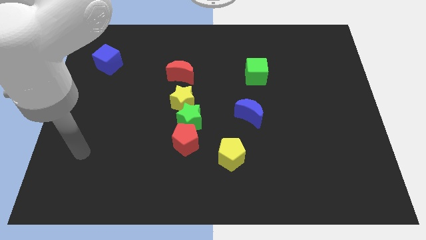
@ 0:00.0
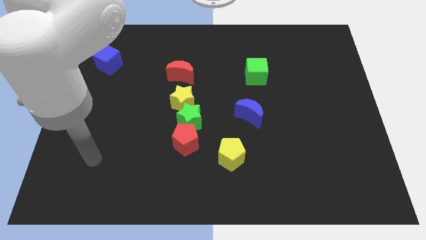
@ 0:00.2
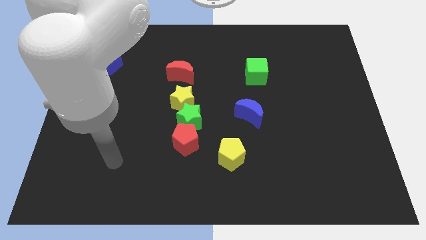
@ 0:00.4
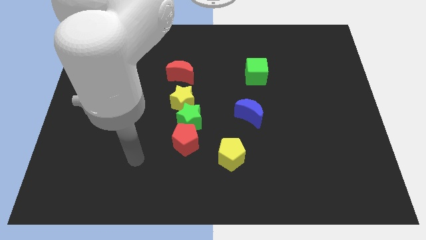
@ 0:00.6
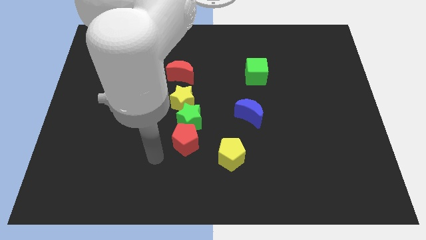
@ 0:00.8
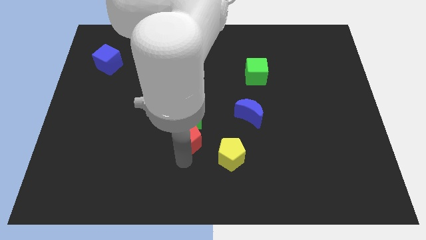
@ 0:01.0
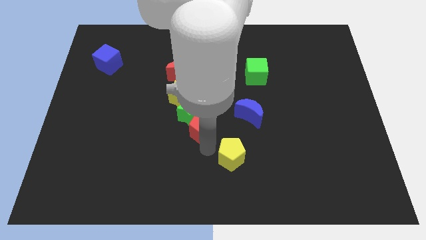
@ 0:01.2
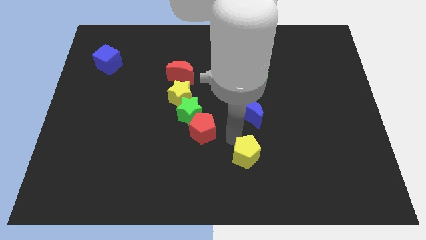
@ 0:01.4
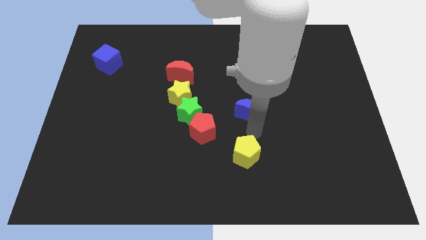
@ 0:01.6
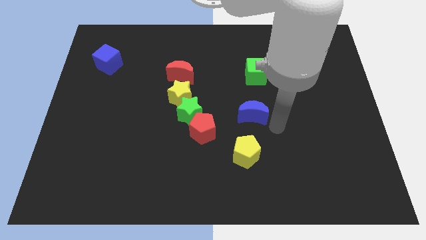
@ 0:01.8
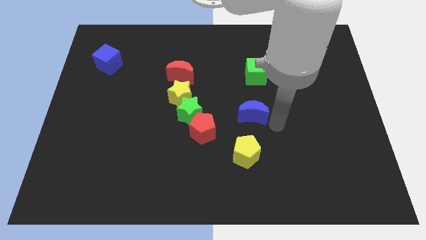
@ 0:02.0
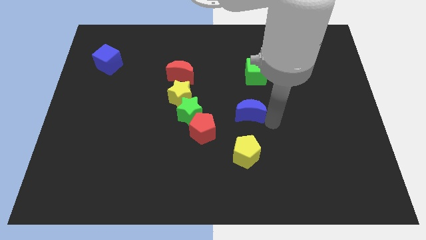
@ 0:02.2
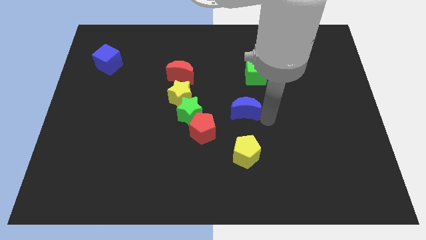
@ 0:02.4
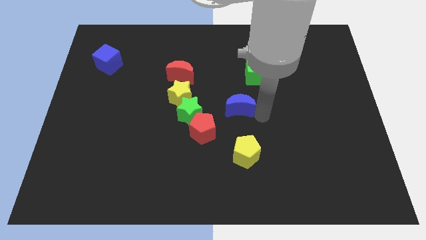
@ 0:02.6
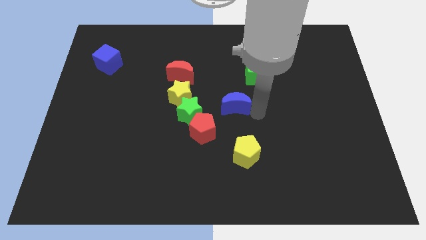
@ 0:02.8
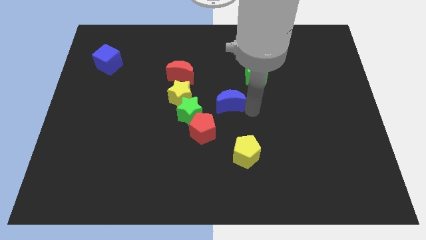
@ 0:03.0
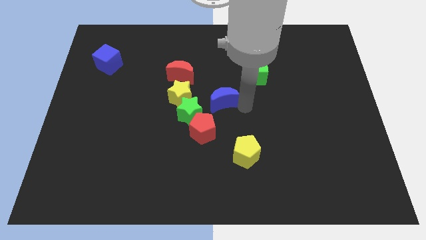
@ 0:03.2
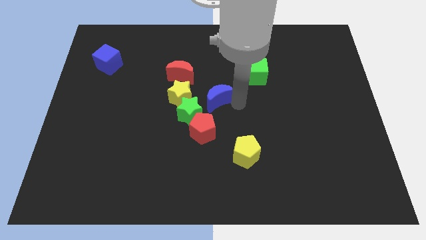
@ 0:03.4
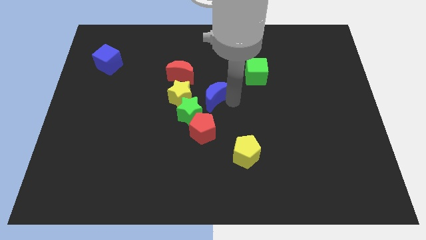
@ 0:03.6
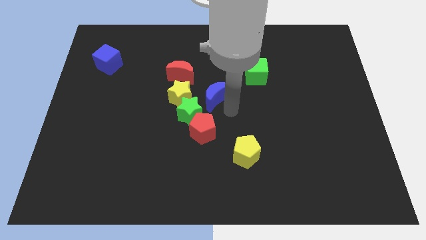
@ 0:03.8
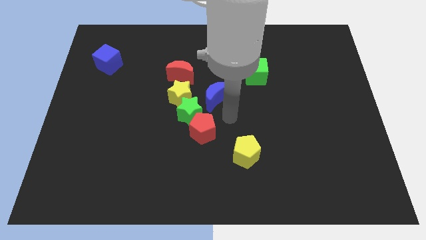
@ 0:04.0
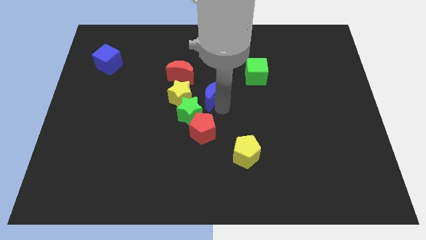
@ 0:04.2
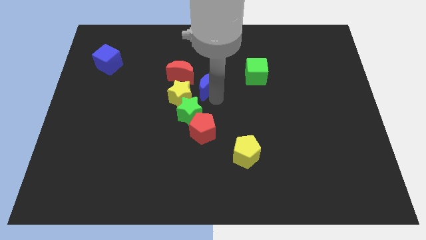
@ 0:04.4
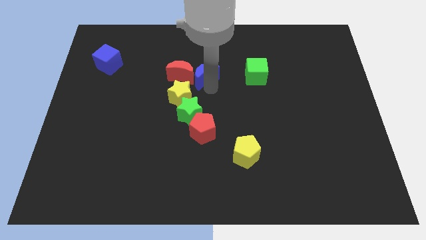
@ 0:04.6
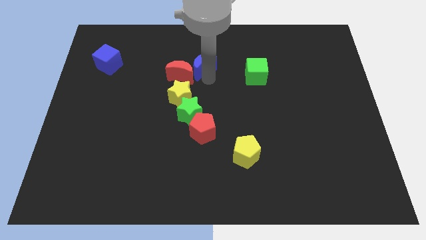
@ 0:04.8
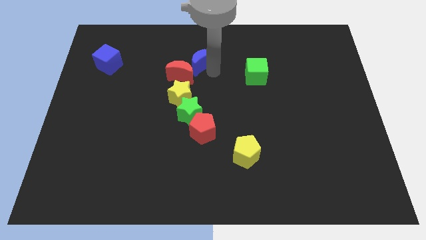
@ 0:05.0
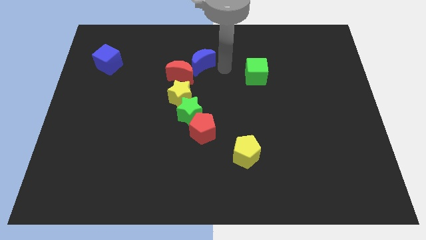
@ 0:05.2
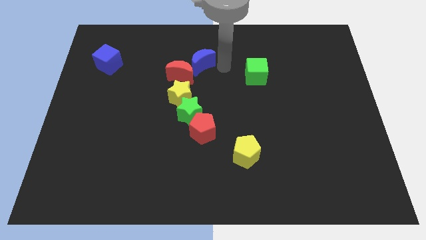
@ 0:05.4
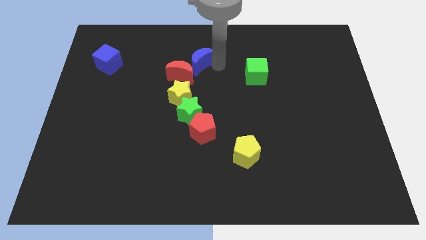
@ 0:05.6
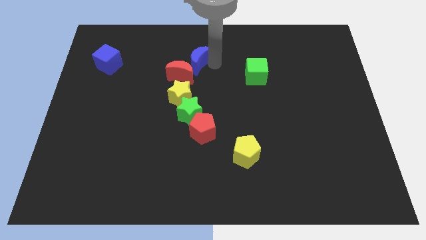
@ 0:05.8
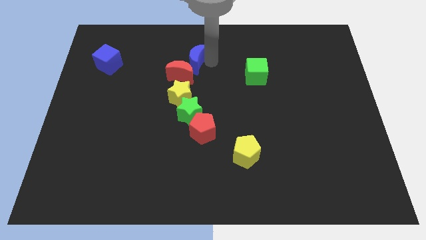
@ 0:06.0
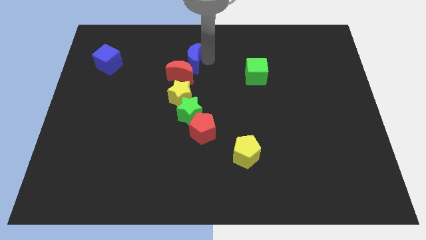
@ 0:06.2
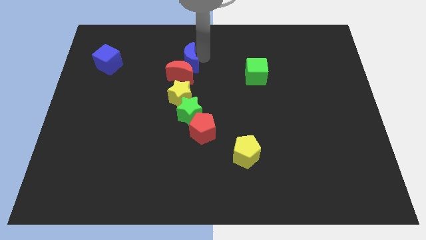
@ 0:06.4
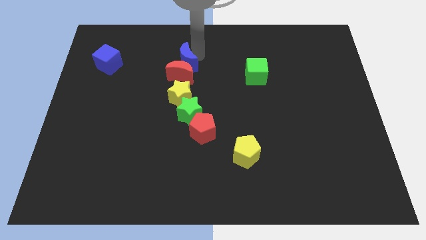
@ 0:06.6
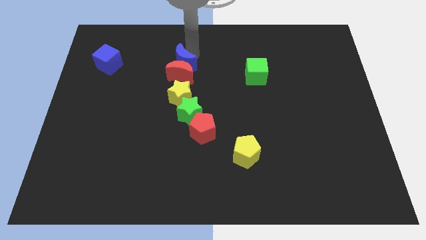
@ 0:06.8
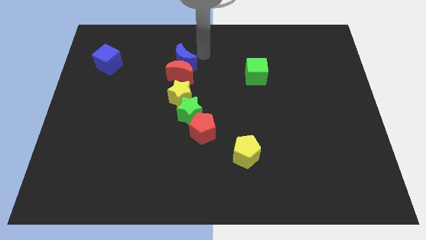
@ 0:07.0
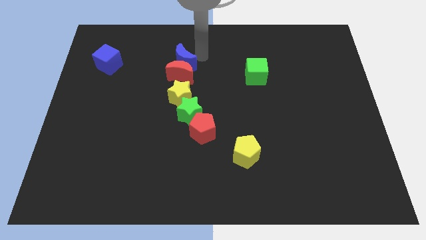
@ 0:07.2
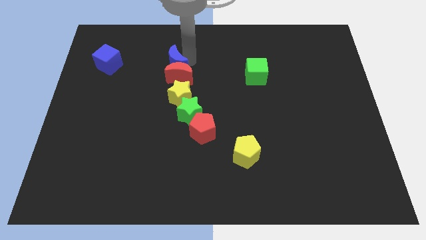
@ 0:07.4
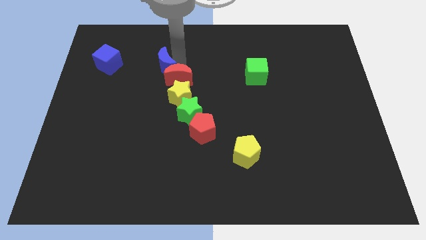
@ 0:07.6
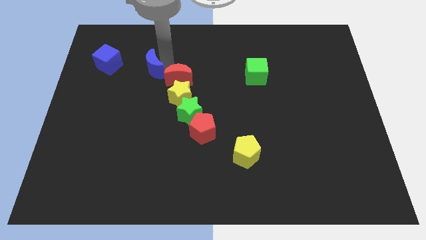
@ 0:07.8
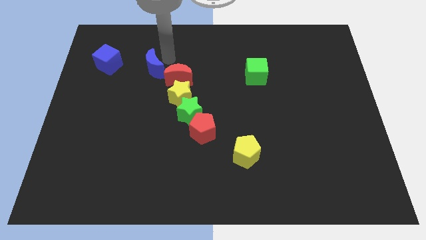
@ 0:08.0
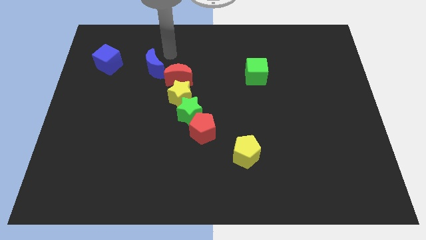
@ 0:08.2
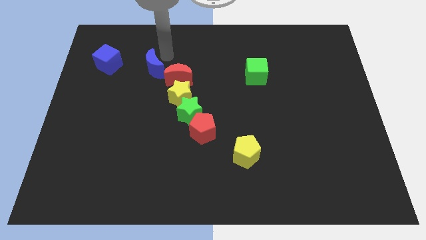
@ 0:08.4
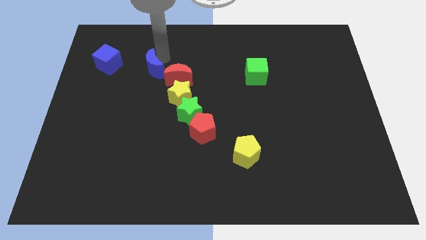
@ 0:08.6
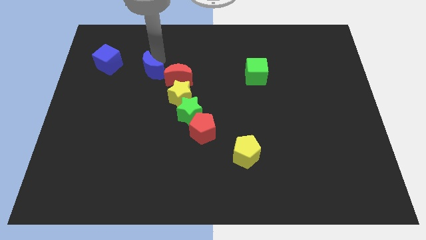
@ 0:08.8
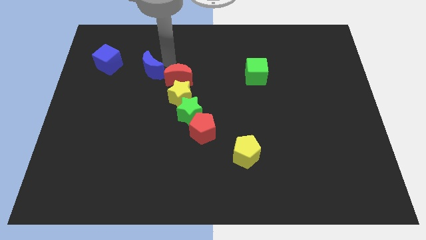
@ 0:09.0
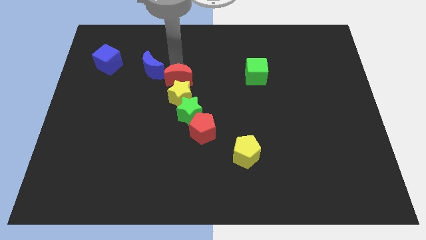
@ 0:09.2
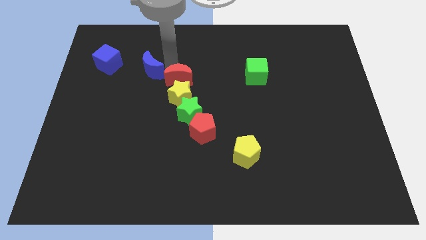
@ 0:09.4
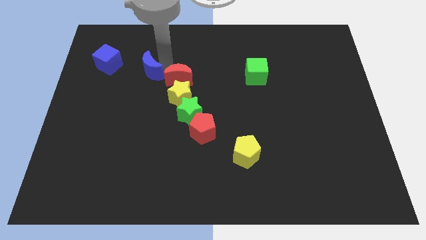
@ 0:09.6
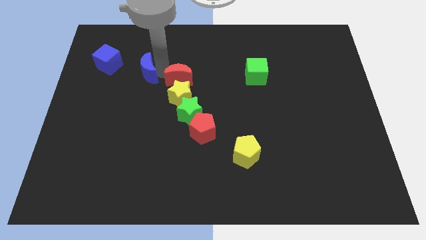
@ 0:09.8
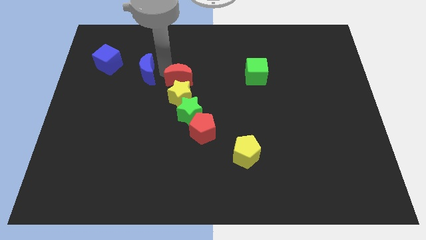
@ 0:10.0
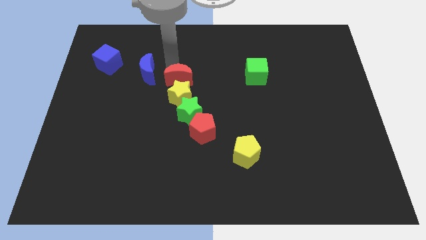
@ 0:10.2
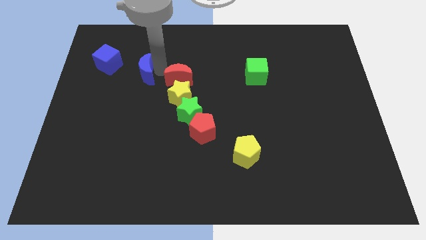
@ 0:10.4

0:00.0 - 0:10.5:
move the blue moon diagonally down and to the right of the blue cube

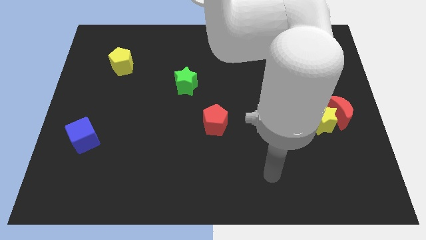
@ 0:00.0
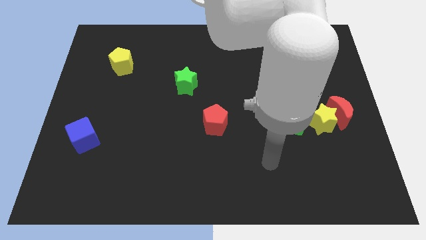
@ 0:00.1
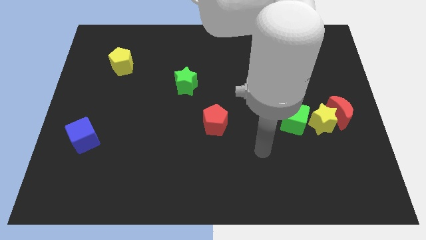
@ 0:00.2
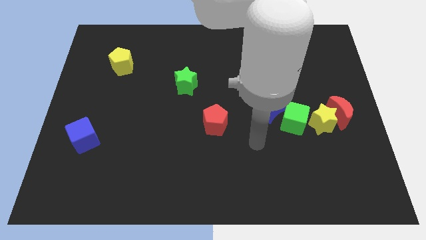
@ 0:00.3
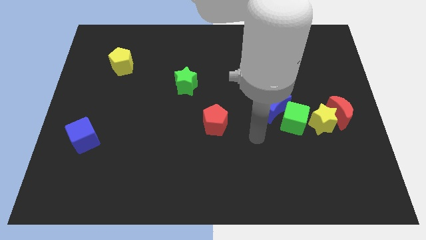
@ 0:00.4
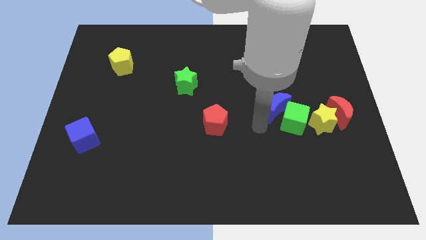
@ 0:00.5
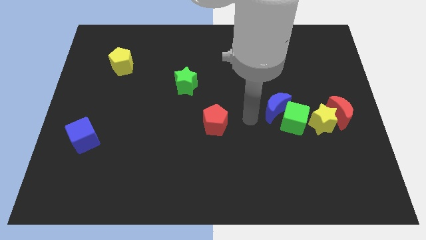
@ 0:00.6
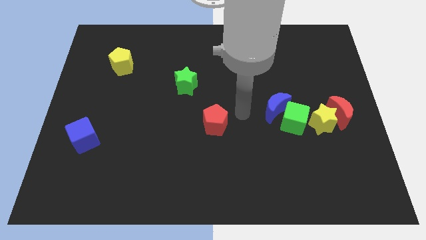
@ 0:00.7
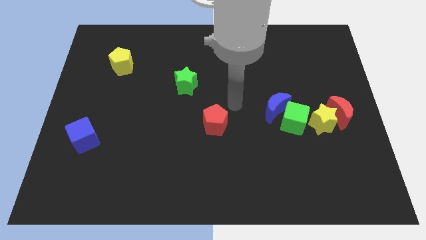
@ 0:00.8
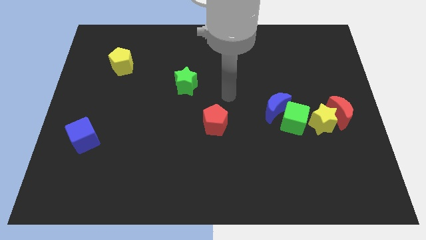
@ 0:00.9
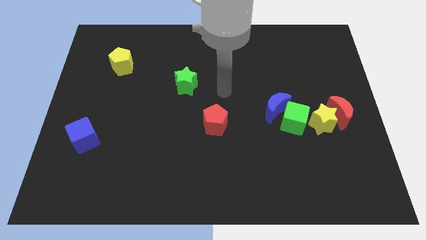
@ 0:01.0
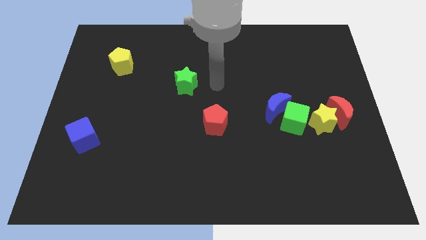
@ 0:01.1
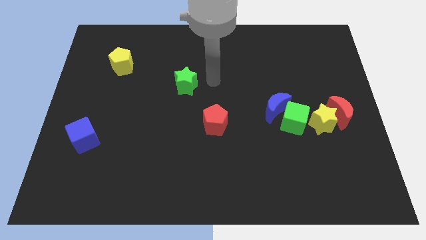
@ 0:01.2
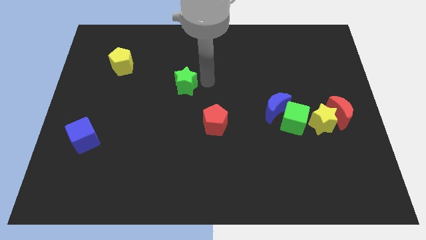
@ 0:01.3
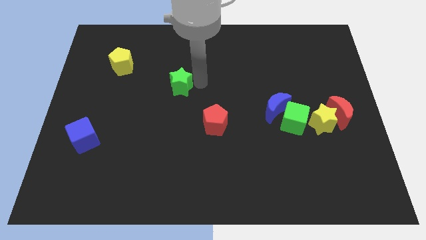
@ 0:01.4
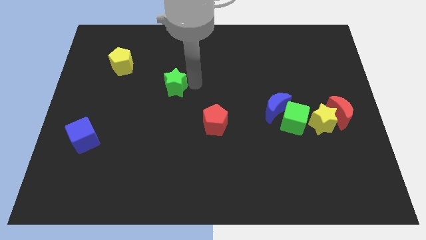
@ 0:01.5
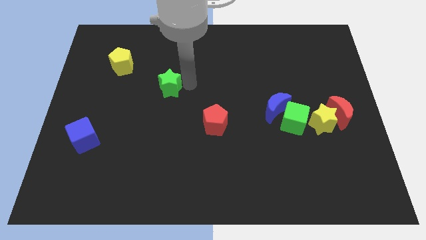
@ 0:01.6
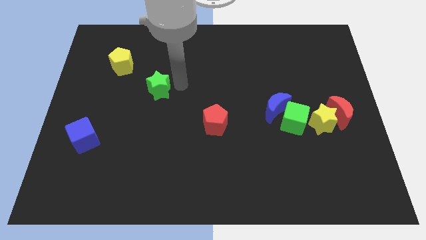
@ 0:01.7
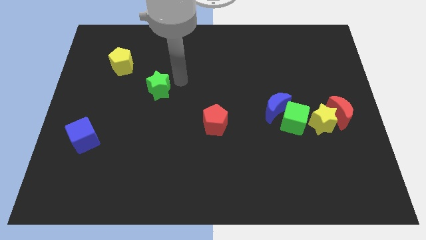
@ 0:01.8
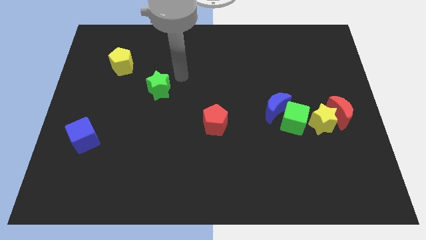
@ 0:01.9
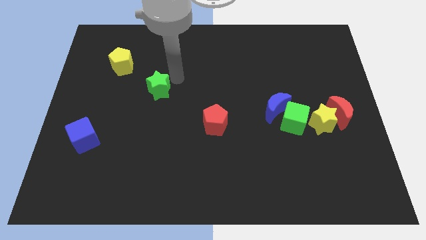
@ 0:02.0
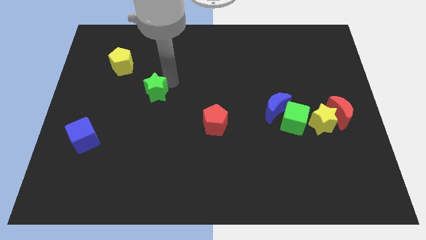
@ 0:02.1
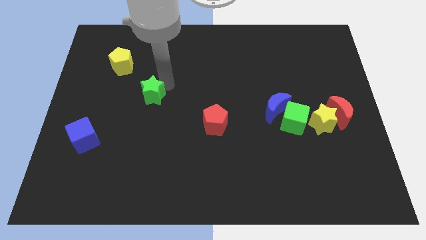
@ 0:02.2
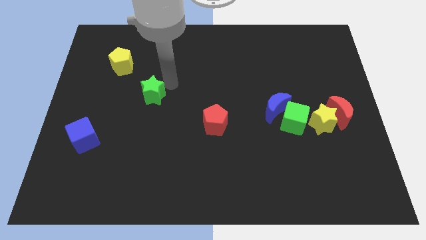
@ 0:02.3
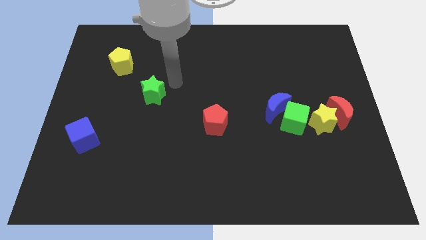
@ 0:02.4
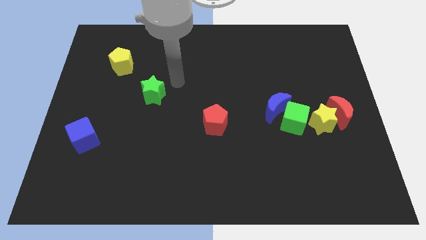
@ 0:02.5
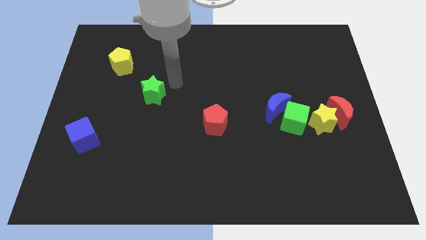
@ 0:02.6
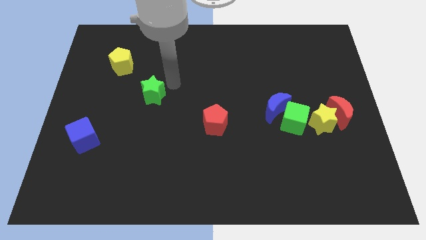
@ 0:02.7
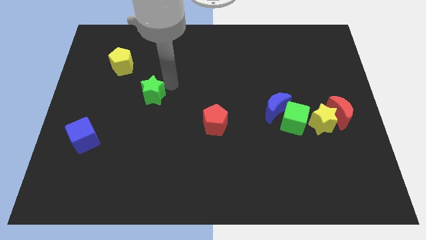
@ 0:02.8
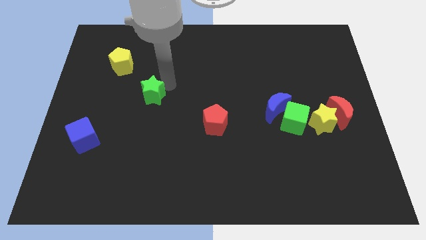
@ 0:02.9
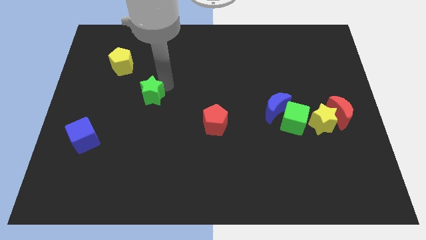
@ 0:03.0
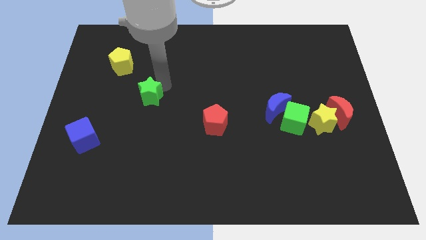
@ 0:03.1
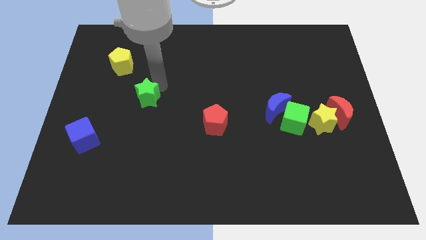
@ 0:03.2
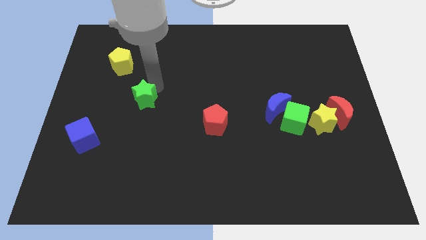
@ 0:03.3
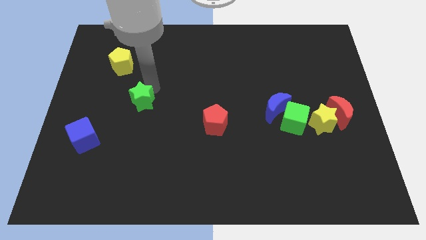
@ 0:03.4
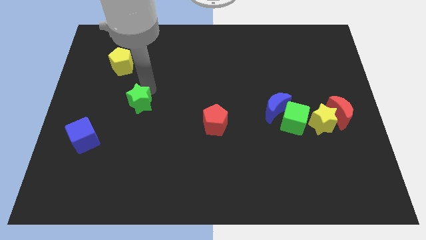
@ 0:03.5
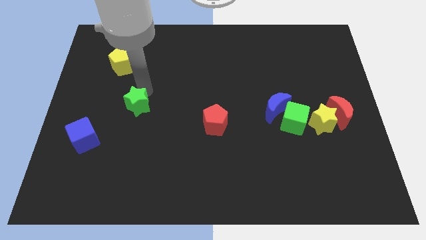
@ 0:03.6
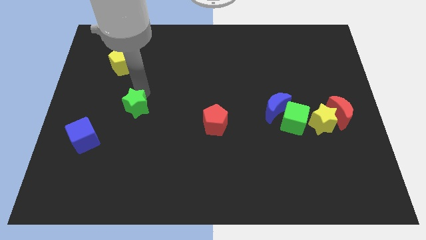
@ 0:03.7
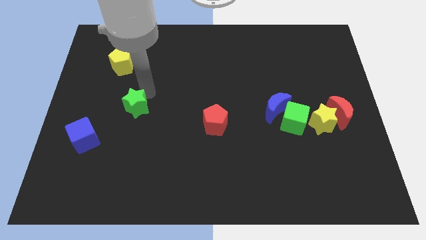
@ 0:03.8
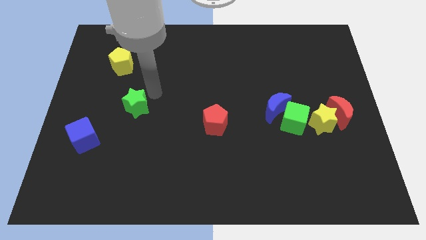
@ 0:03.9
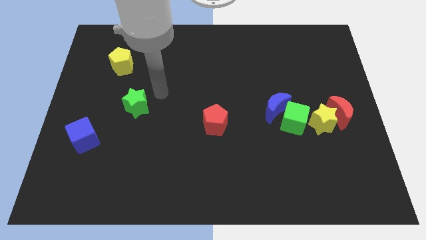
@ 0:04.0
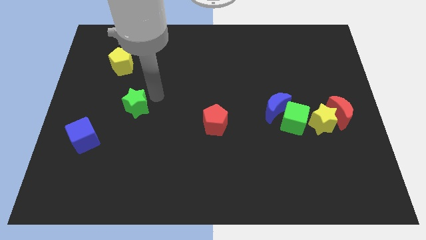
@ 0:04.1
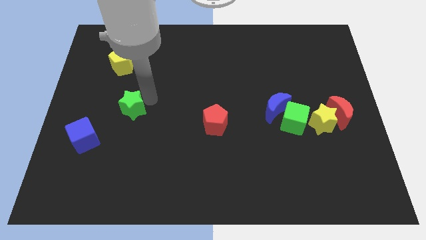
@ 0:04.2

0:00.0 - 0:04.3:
slide the green star to the top right of the blue cube
